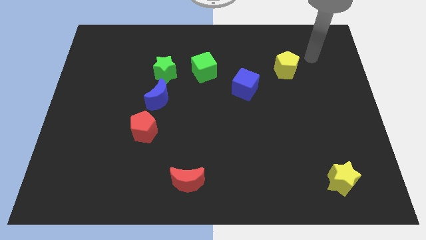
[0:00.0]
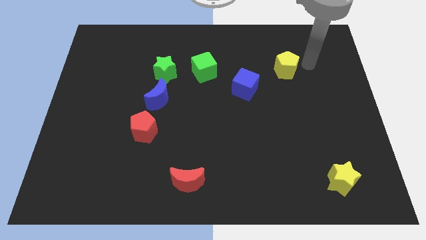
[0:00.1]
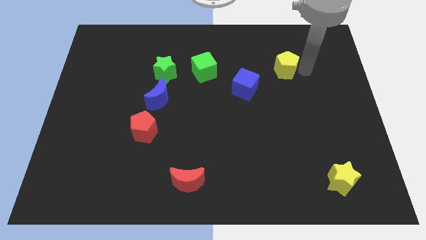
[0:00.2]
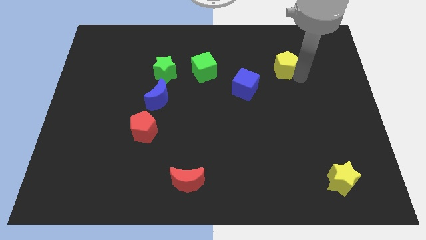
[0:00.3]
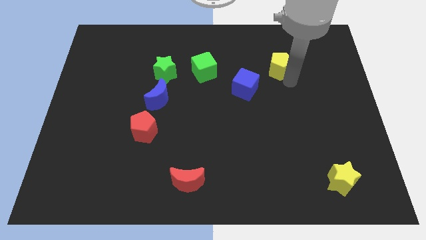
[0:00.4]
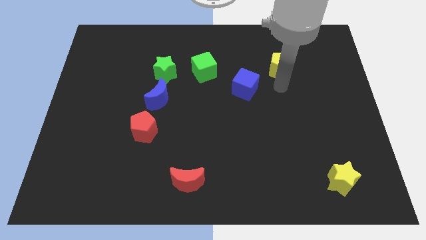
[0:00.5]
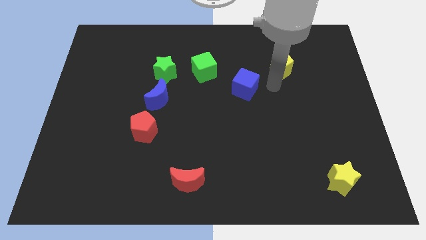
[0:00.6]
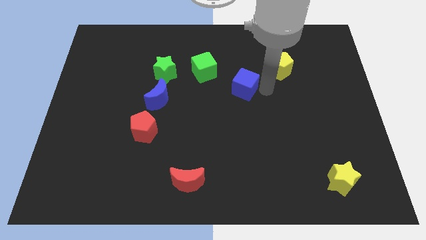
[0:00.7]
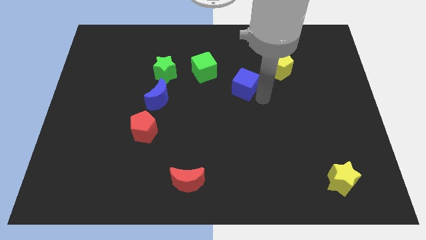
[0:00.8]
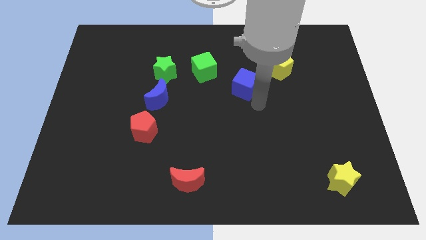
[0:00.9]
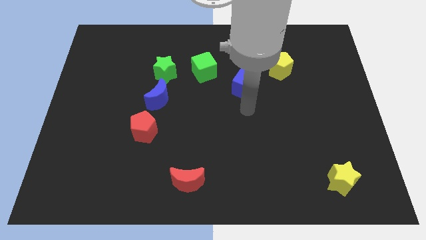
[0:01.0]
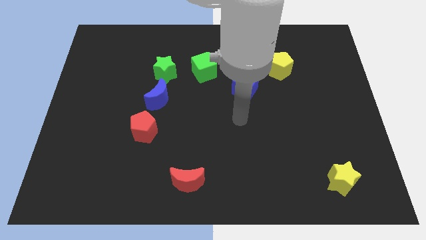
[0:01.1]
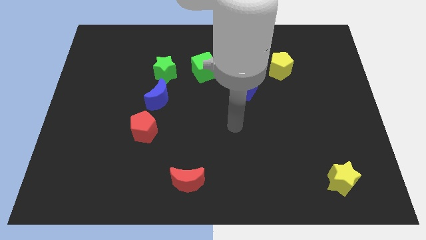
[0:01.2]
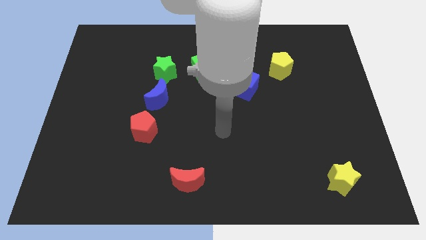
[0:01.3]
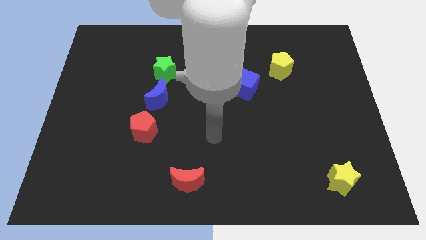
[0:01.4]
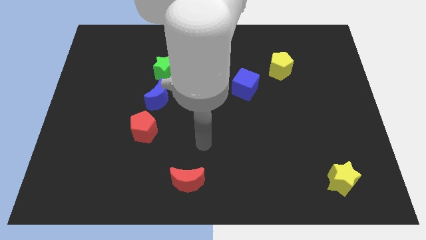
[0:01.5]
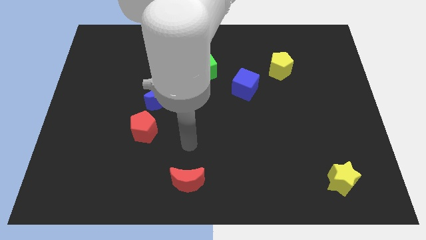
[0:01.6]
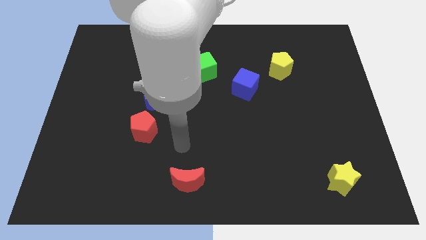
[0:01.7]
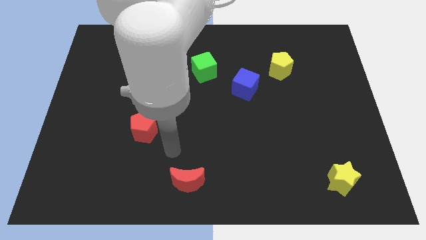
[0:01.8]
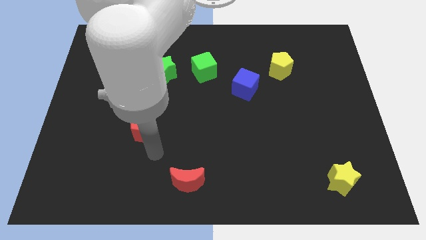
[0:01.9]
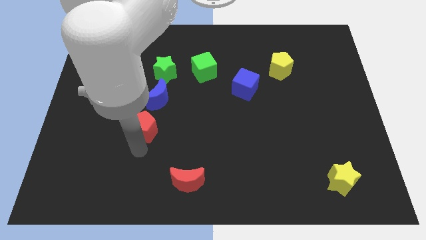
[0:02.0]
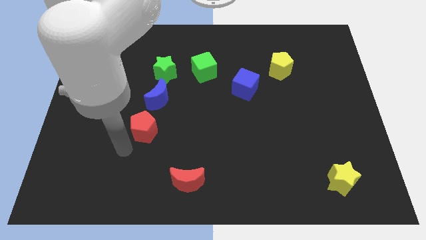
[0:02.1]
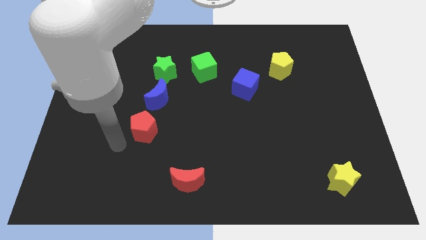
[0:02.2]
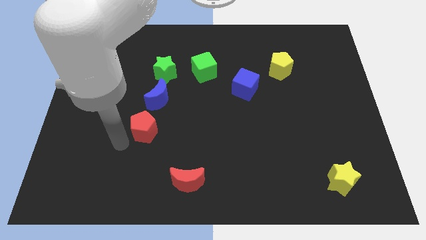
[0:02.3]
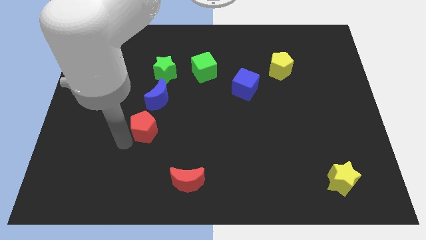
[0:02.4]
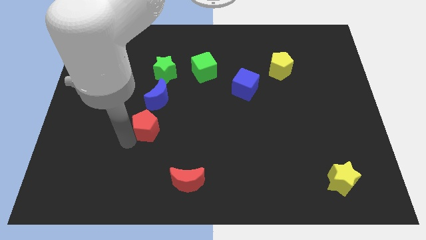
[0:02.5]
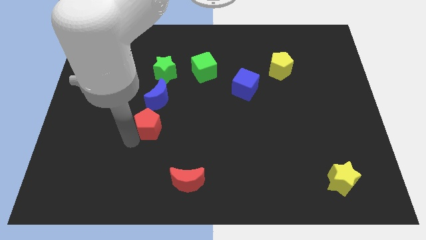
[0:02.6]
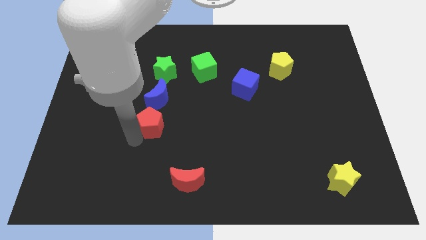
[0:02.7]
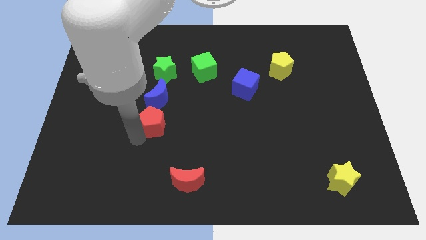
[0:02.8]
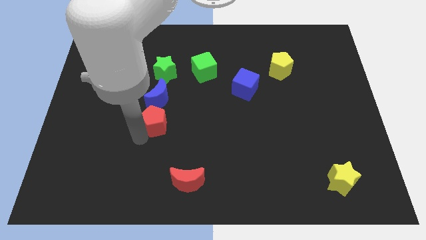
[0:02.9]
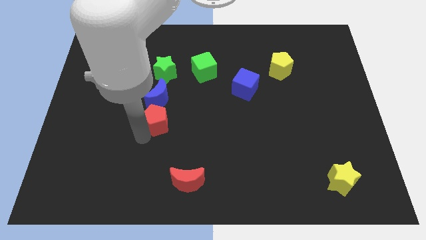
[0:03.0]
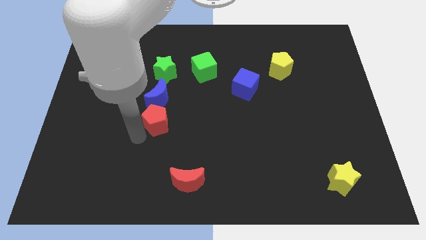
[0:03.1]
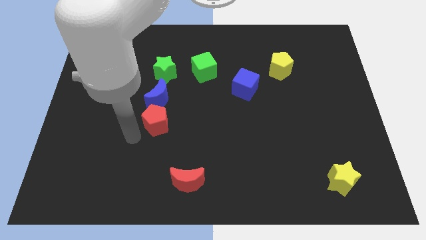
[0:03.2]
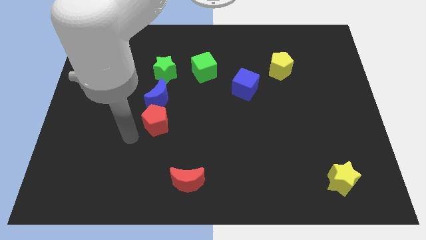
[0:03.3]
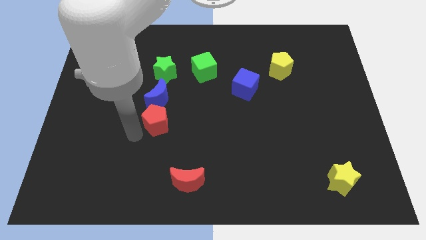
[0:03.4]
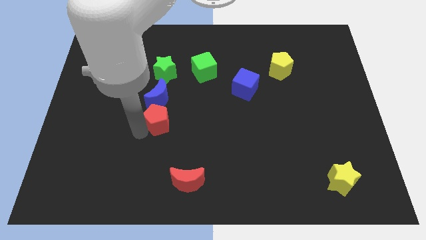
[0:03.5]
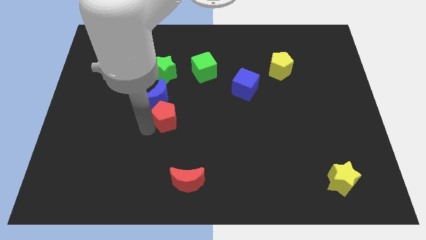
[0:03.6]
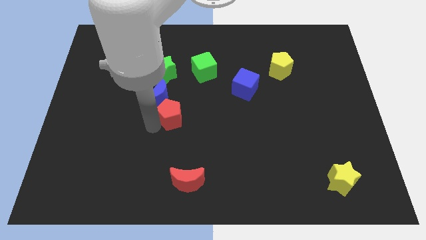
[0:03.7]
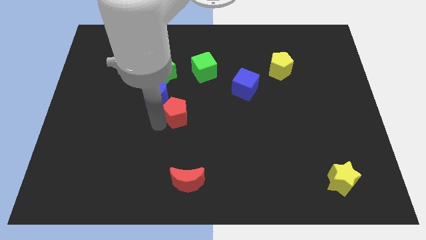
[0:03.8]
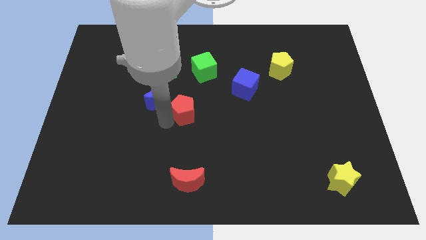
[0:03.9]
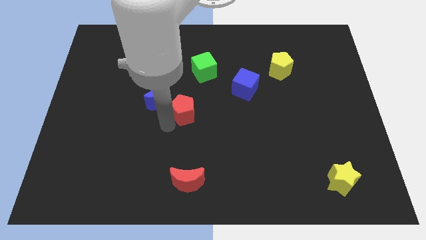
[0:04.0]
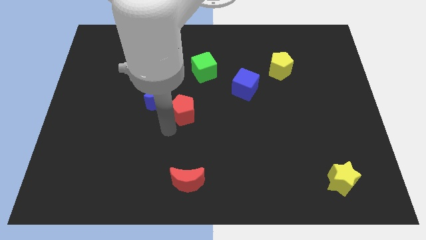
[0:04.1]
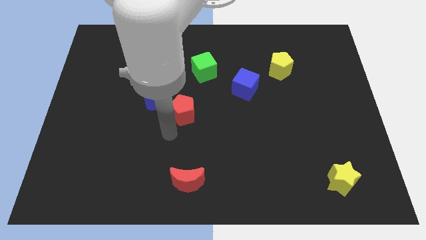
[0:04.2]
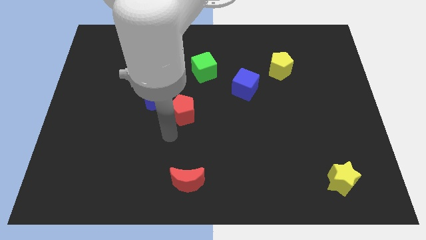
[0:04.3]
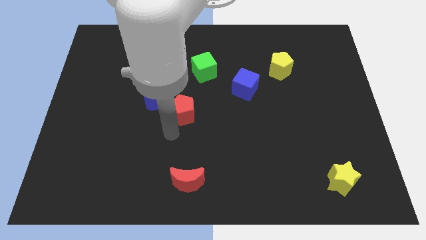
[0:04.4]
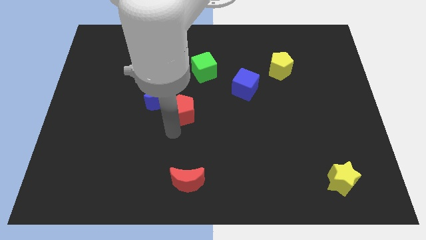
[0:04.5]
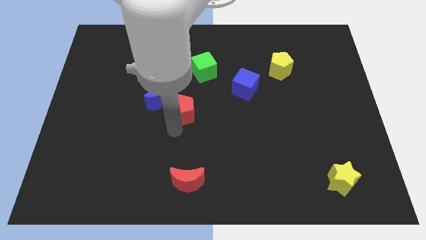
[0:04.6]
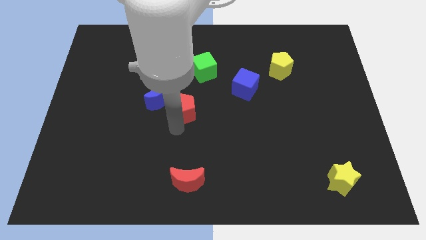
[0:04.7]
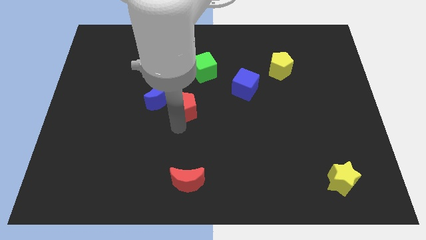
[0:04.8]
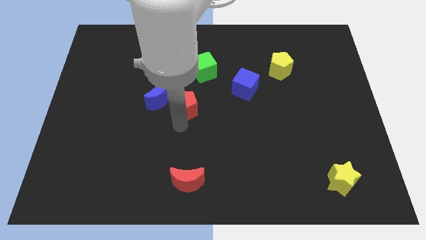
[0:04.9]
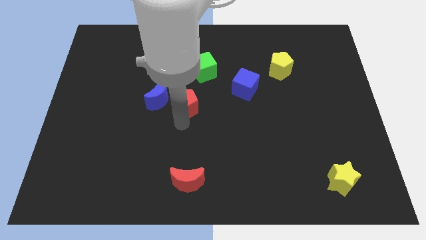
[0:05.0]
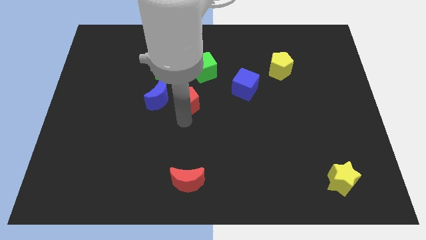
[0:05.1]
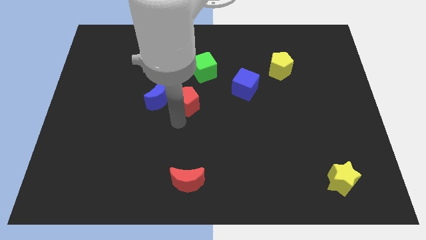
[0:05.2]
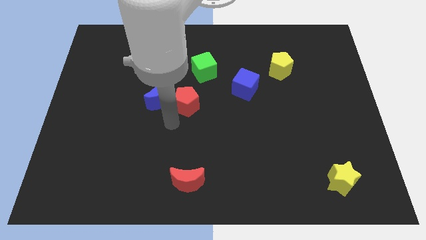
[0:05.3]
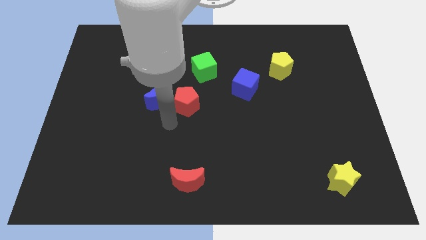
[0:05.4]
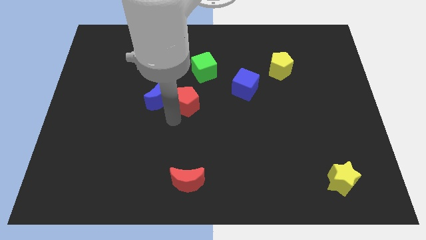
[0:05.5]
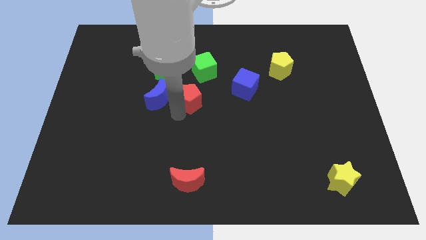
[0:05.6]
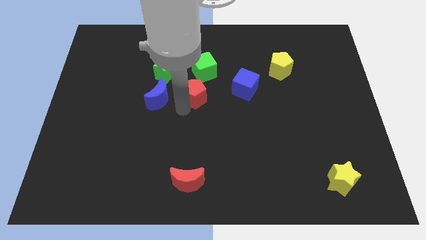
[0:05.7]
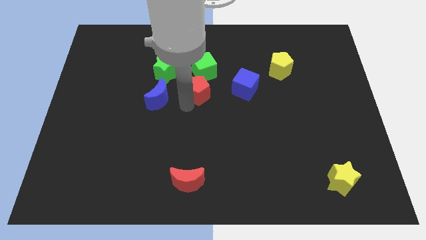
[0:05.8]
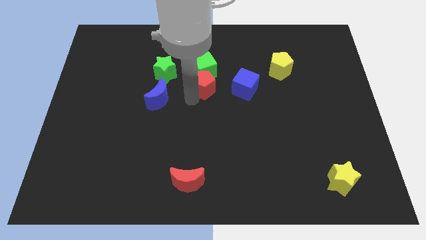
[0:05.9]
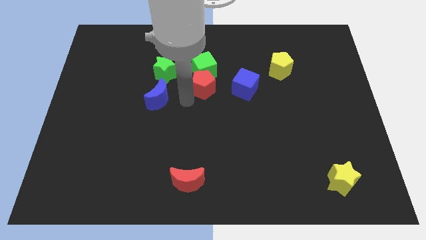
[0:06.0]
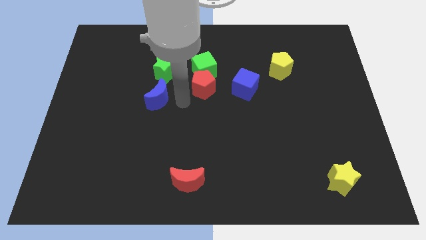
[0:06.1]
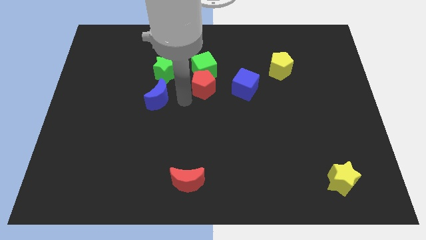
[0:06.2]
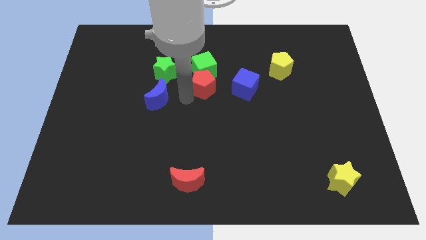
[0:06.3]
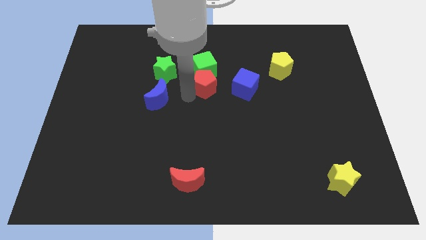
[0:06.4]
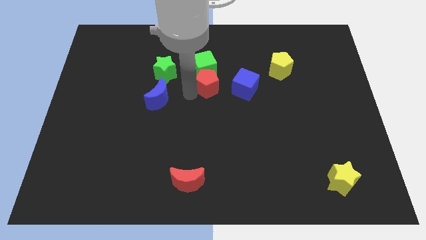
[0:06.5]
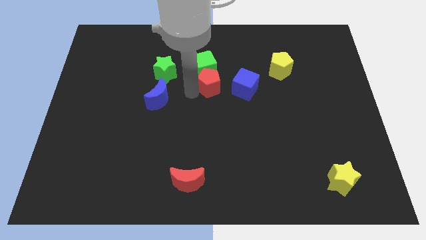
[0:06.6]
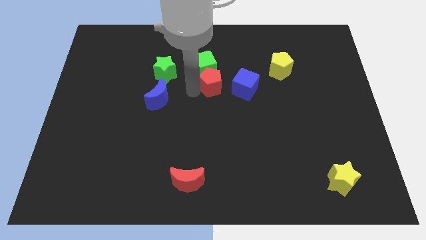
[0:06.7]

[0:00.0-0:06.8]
slide the red pentagon up and to the right diagonally

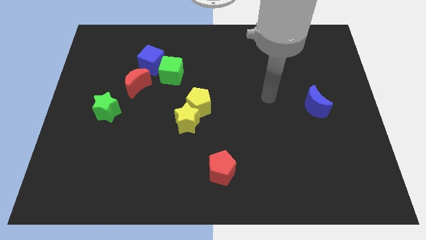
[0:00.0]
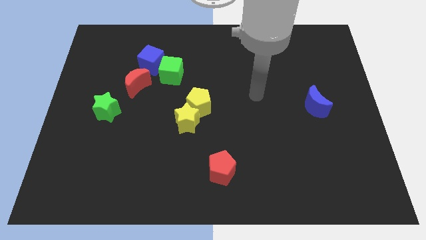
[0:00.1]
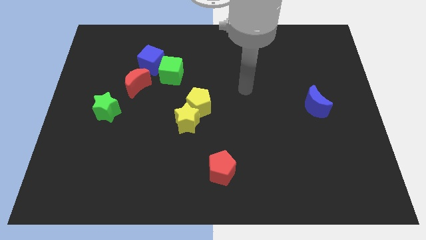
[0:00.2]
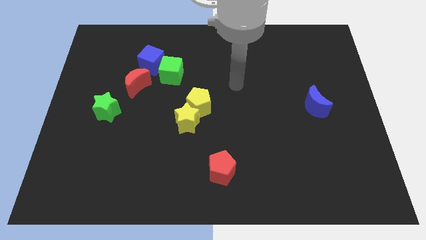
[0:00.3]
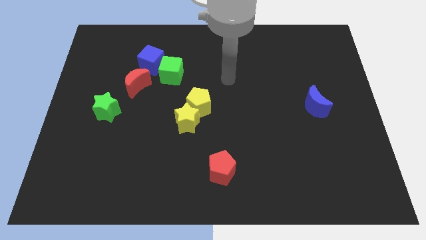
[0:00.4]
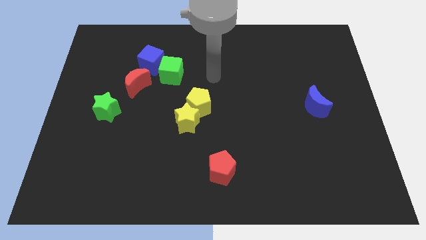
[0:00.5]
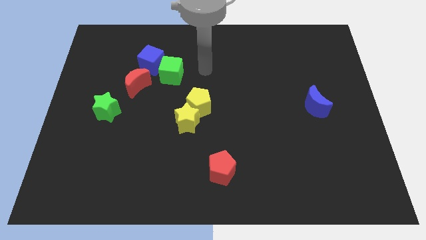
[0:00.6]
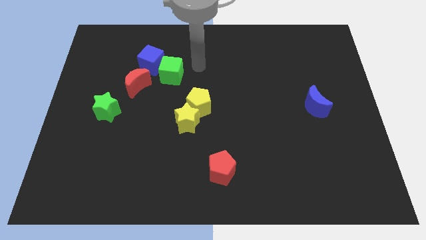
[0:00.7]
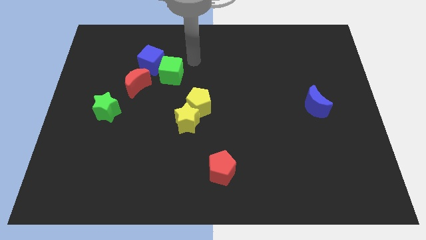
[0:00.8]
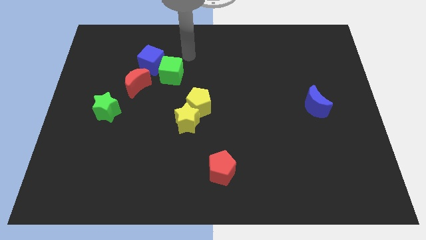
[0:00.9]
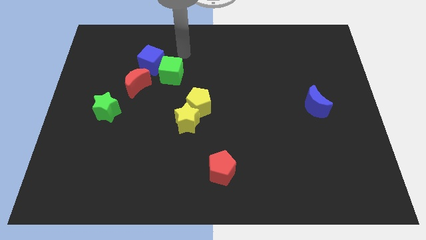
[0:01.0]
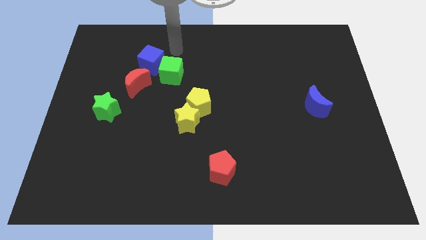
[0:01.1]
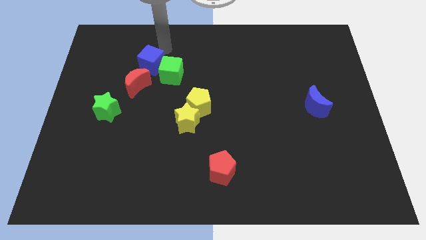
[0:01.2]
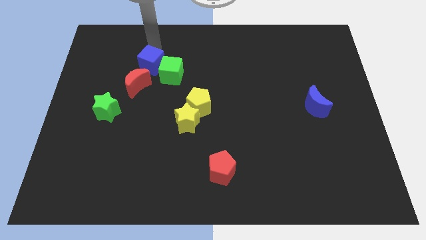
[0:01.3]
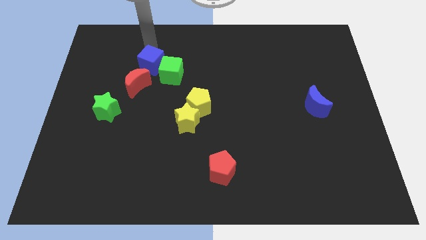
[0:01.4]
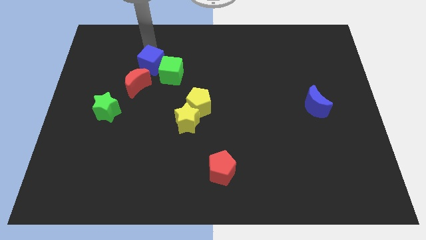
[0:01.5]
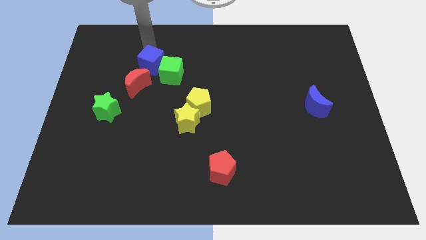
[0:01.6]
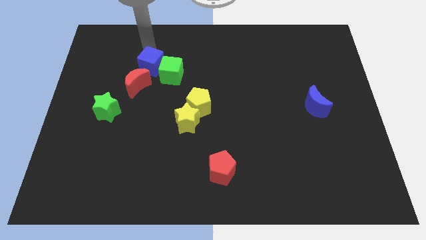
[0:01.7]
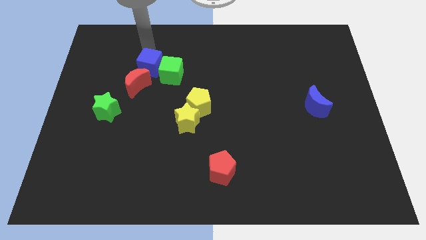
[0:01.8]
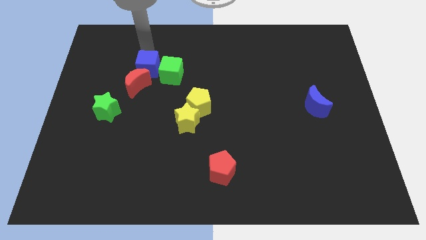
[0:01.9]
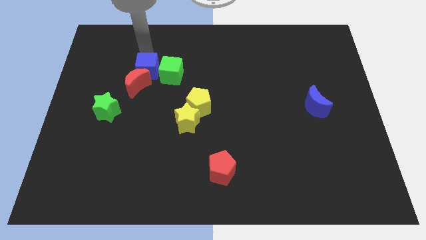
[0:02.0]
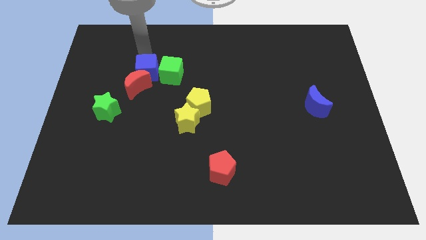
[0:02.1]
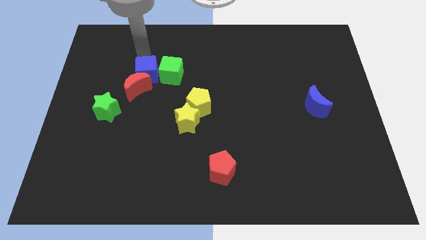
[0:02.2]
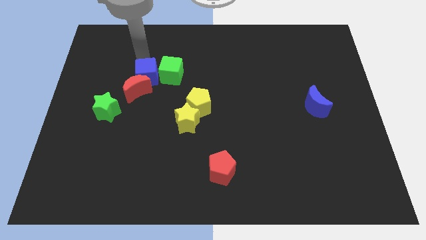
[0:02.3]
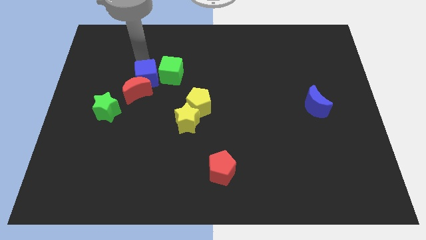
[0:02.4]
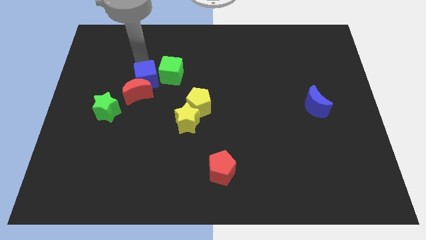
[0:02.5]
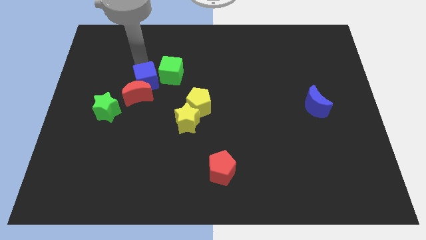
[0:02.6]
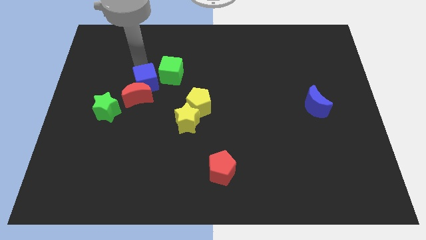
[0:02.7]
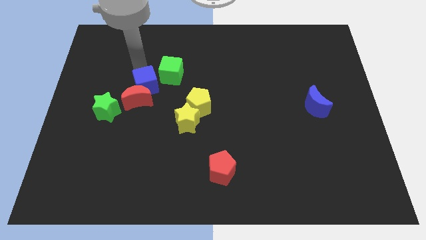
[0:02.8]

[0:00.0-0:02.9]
slide the blue cube slightly downwards
